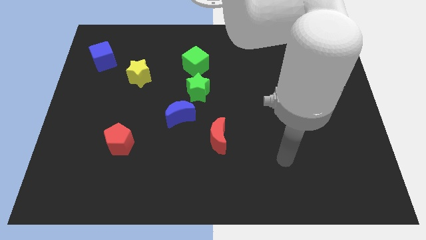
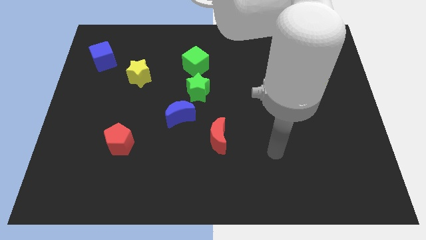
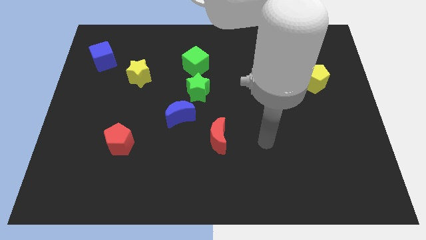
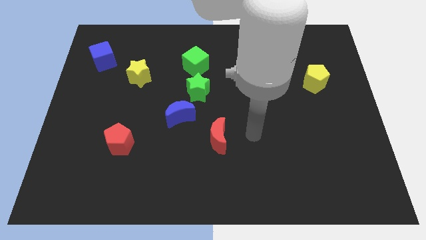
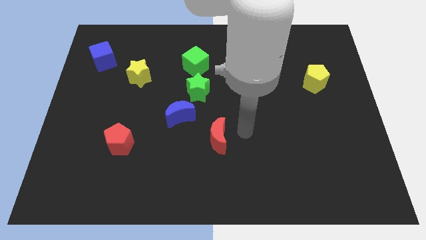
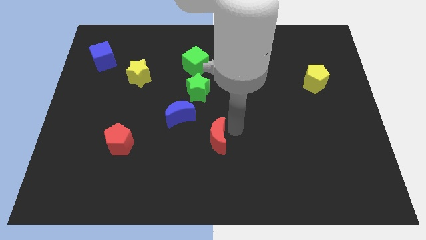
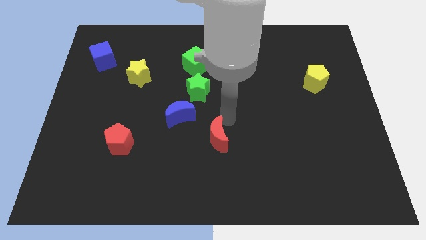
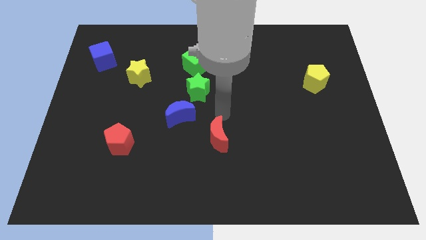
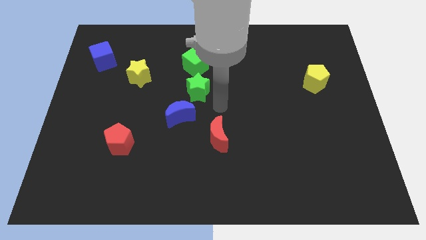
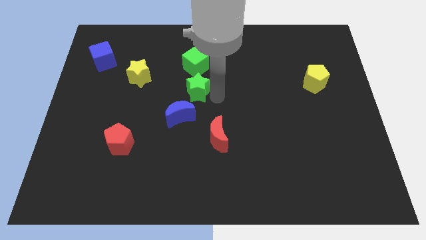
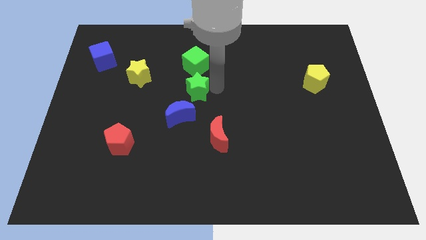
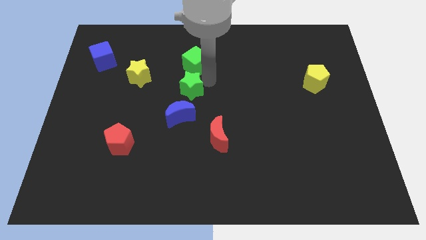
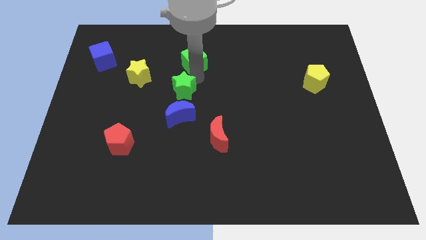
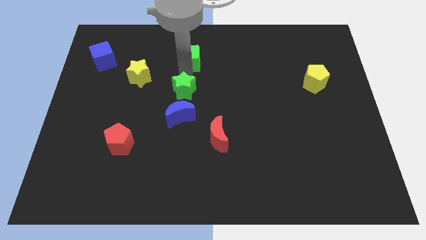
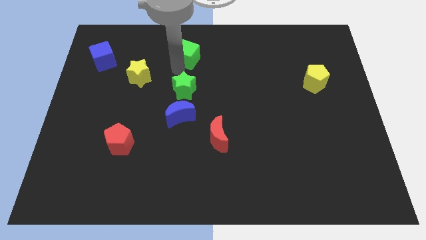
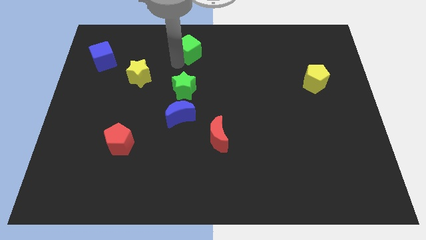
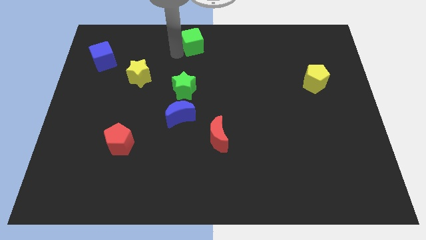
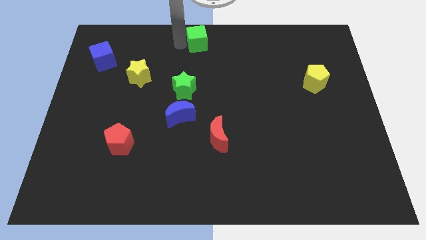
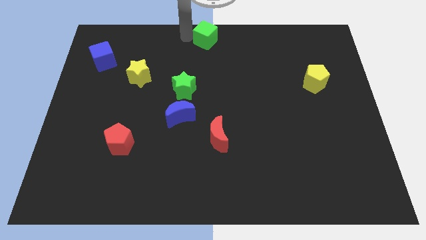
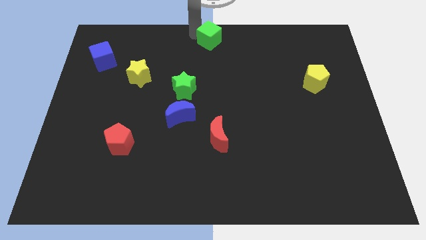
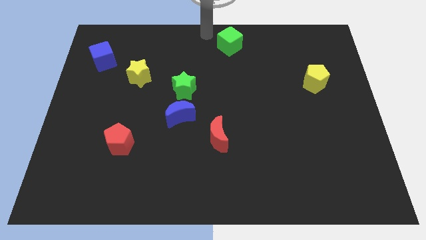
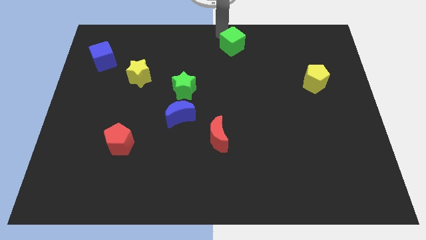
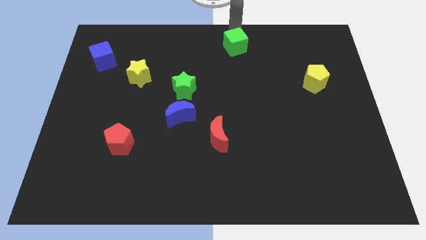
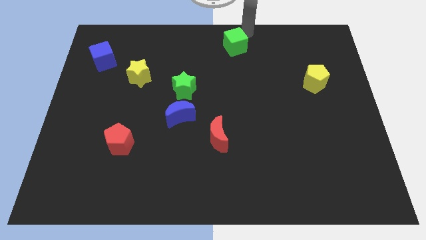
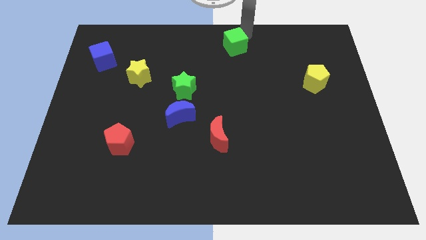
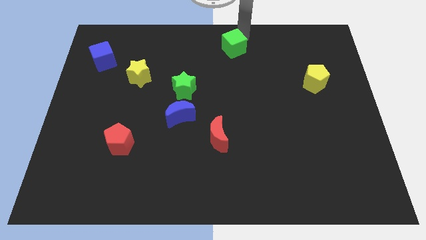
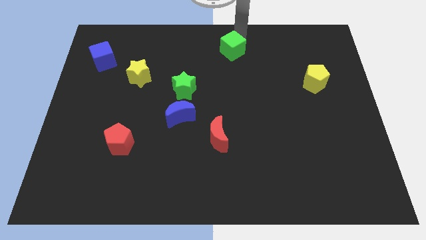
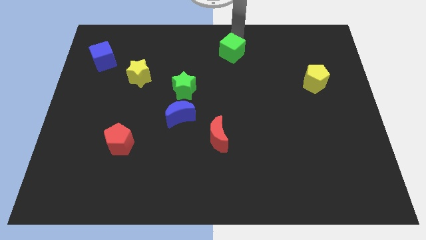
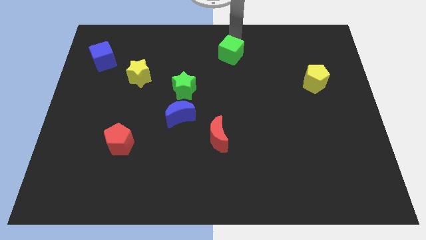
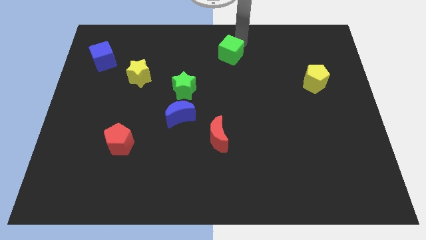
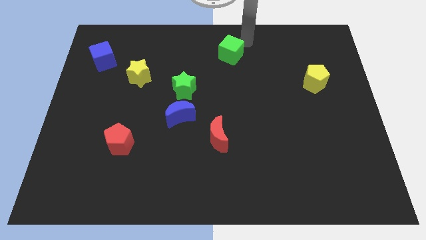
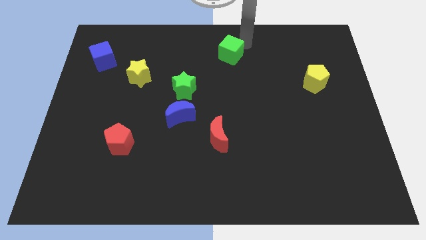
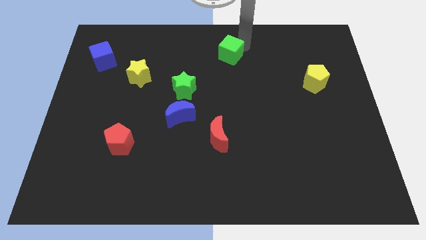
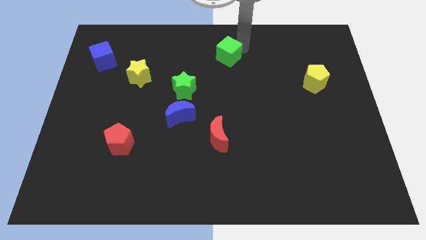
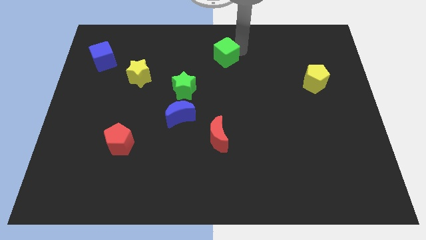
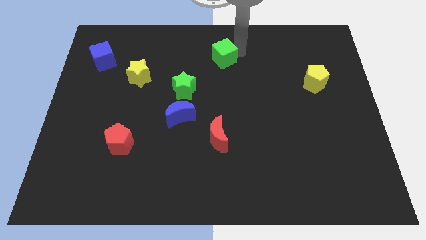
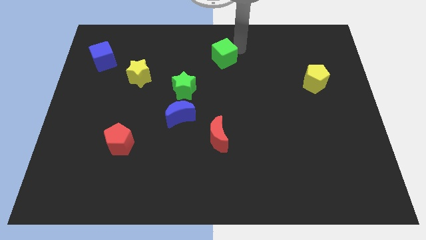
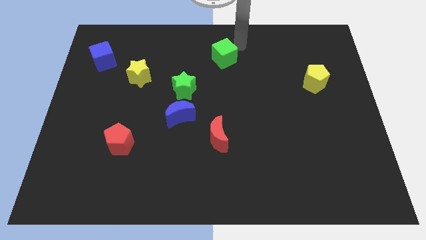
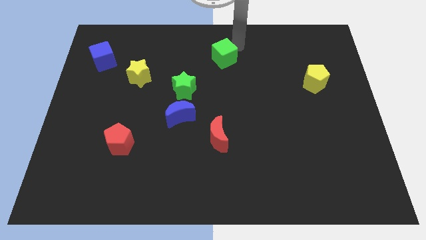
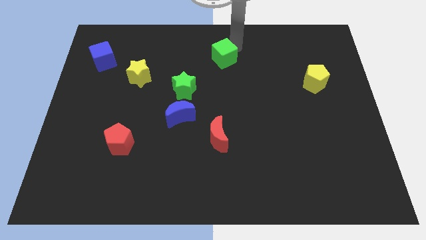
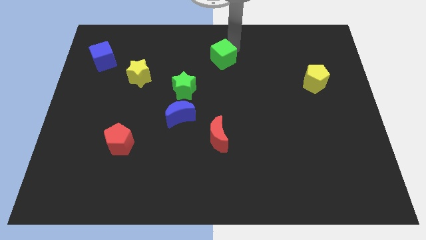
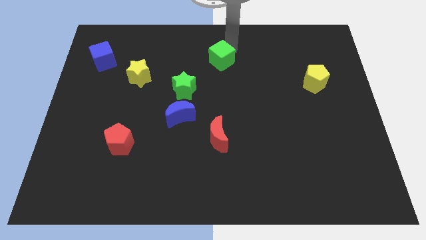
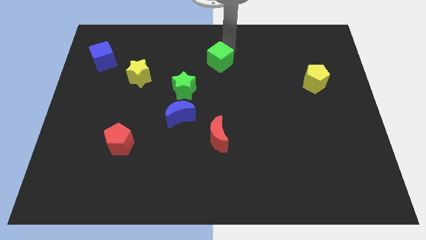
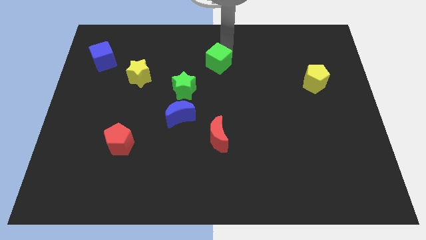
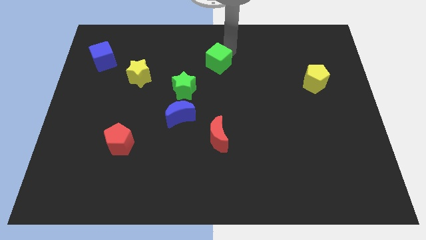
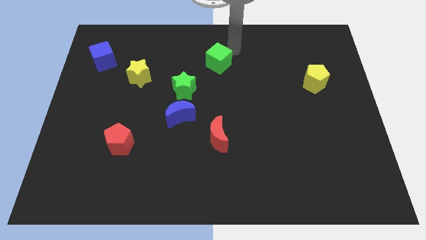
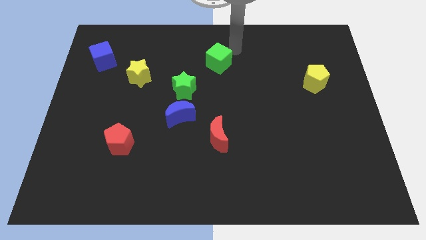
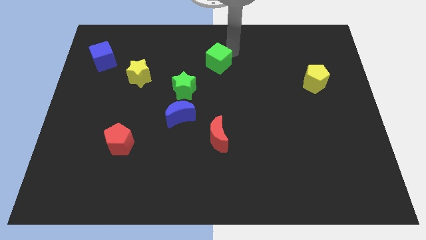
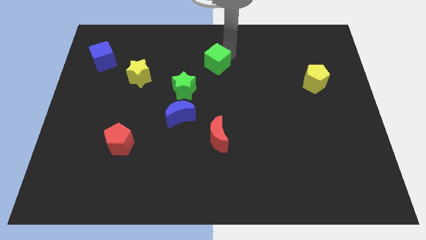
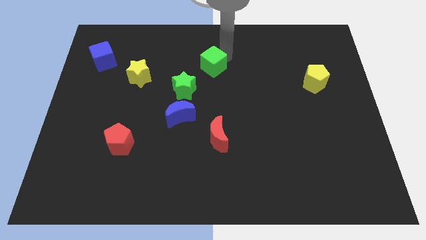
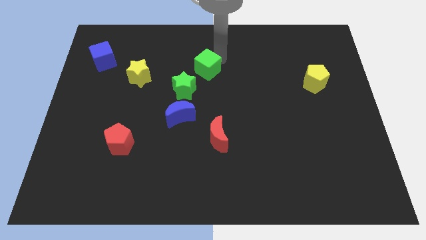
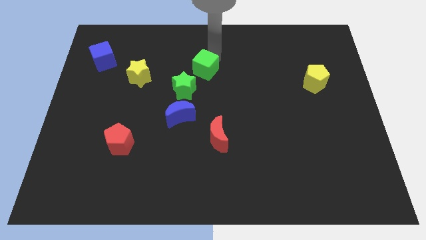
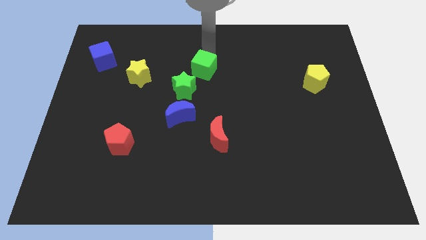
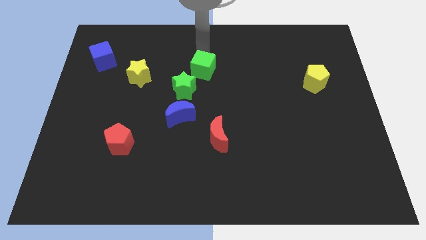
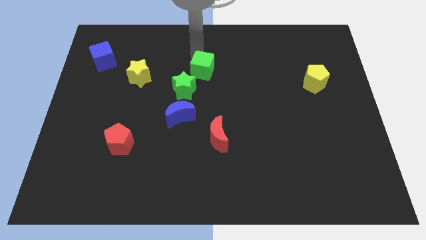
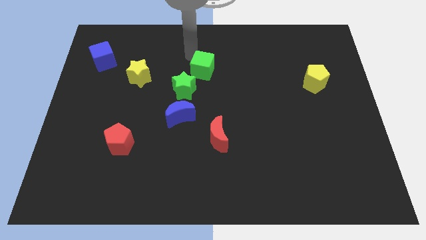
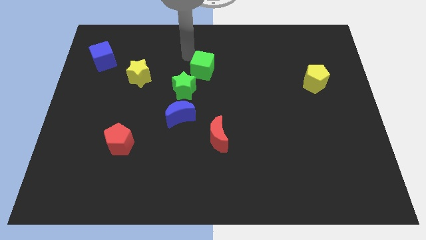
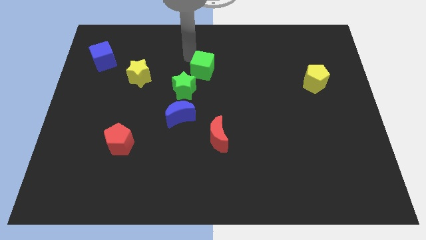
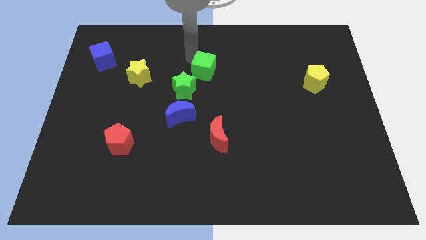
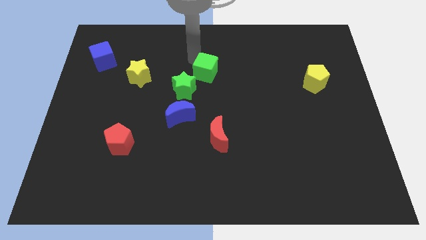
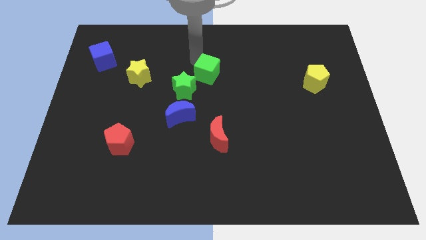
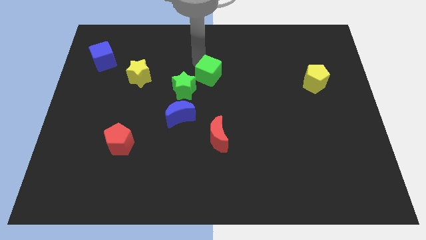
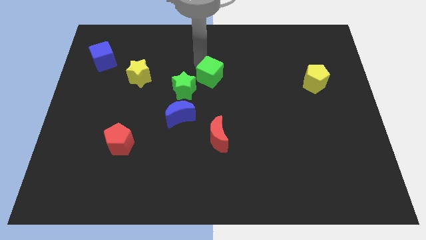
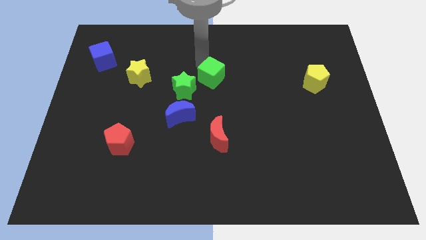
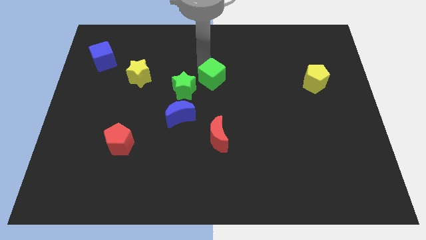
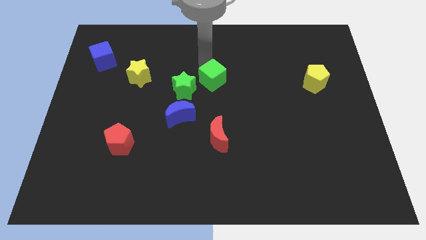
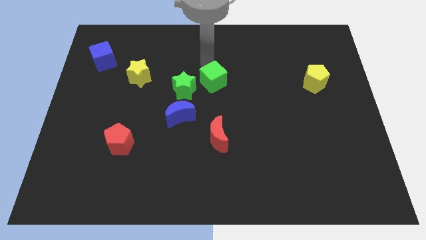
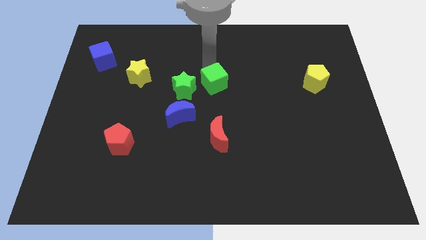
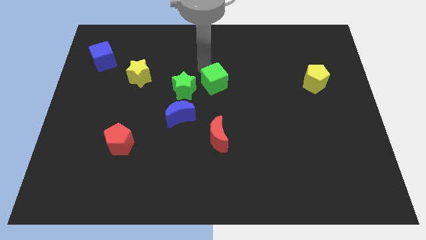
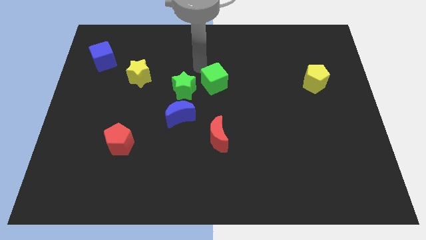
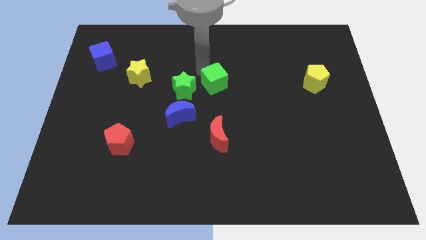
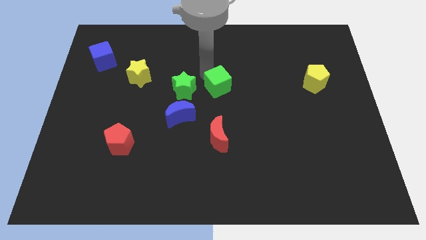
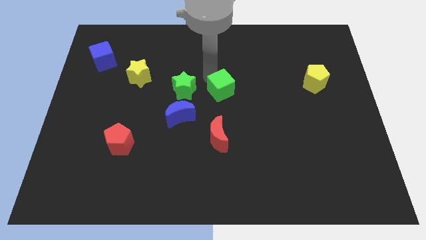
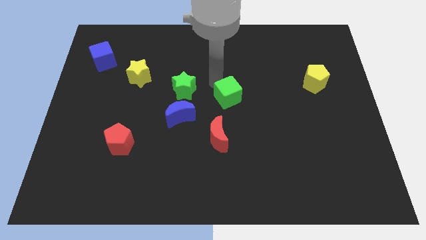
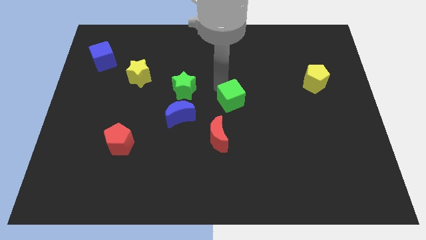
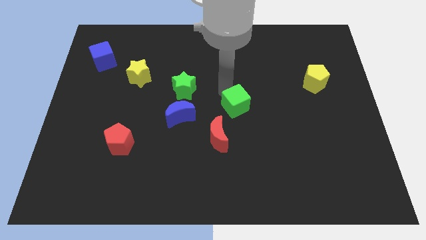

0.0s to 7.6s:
slide the green cube to the top right of the red moon
